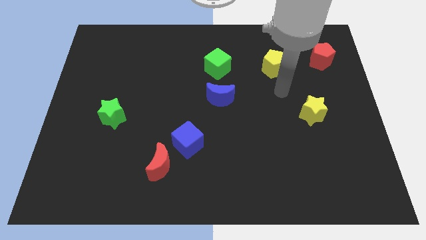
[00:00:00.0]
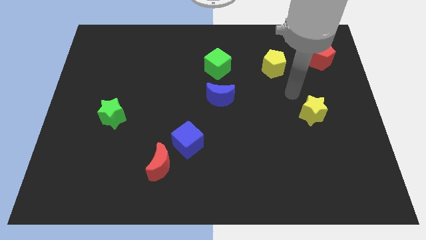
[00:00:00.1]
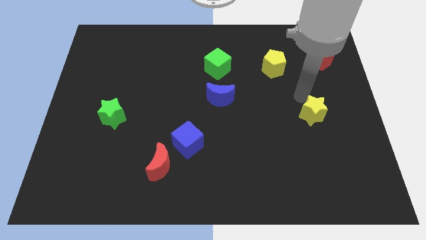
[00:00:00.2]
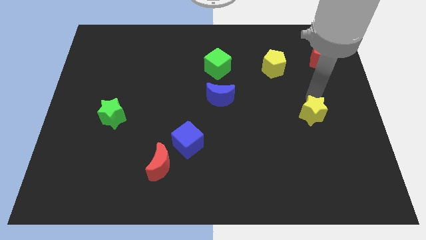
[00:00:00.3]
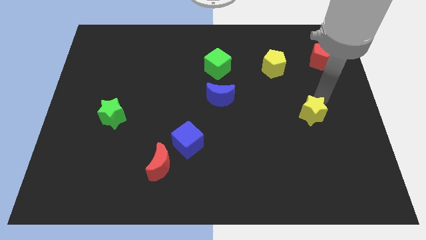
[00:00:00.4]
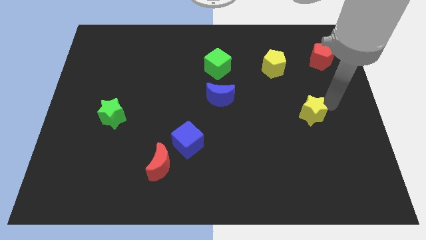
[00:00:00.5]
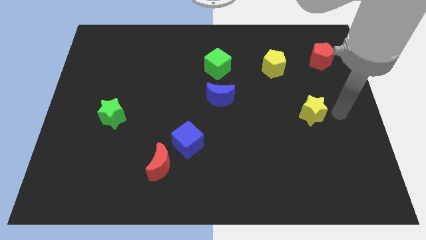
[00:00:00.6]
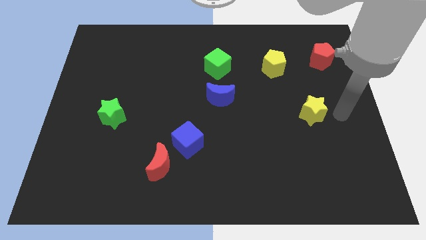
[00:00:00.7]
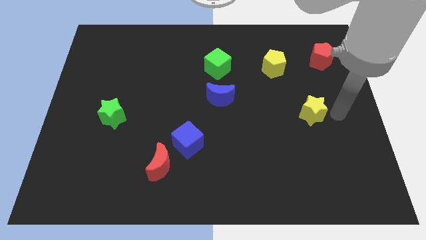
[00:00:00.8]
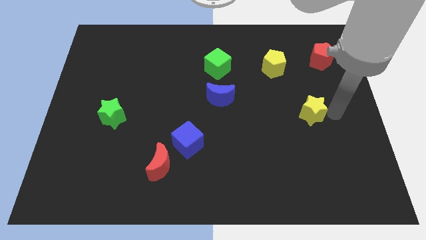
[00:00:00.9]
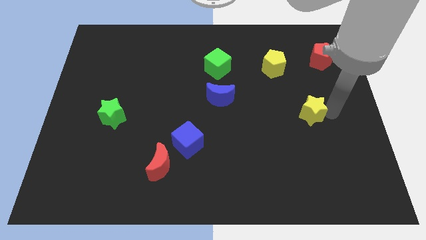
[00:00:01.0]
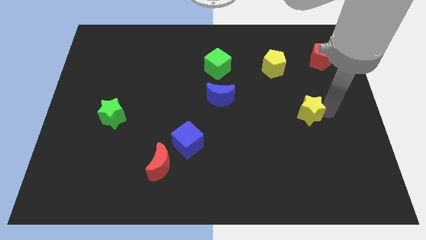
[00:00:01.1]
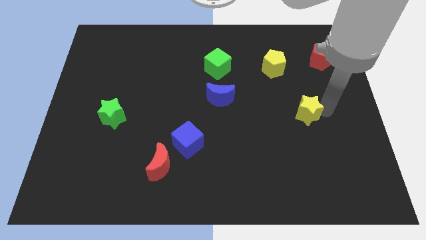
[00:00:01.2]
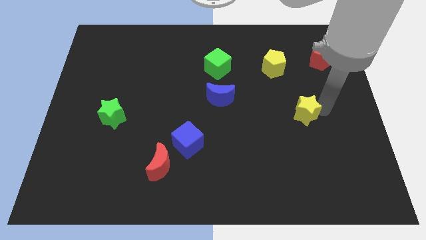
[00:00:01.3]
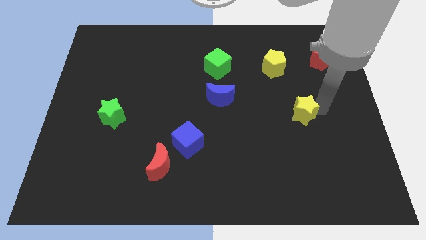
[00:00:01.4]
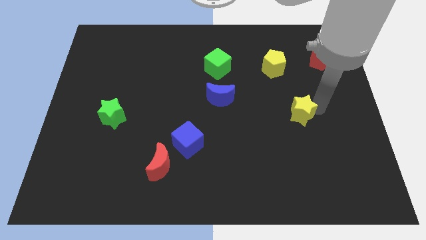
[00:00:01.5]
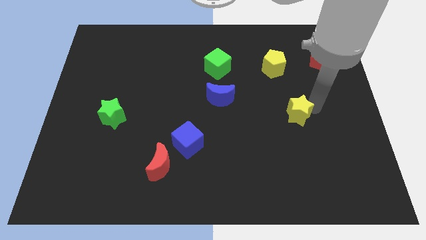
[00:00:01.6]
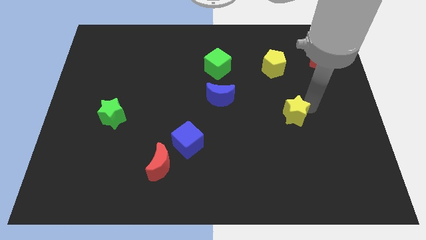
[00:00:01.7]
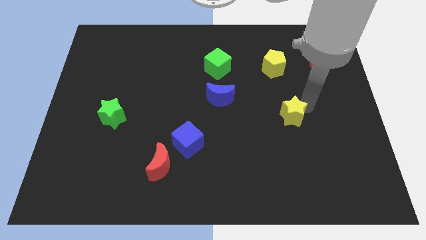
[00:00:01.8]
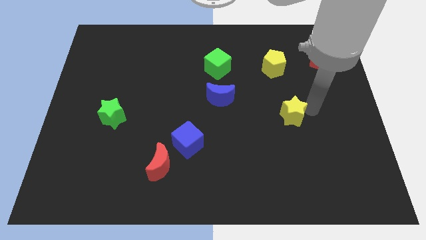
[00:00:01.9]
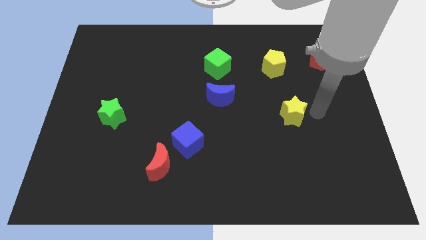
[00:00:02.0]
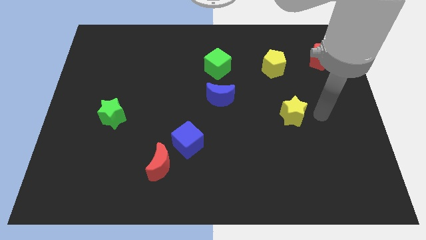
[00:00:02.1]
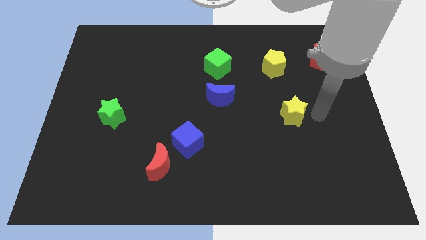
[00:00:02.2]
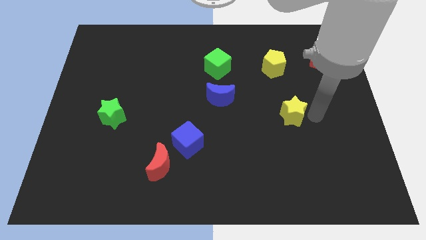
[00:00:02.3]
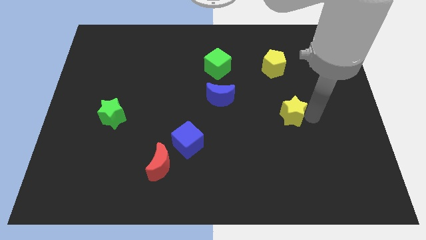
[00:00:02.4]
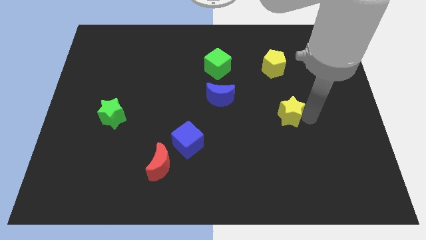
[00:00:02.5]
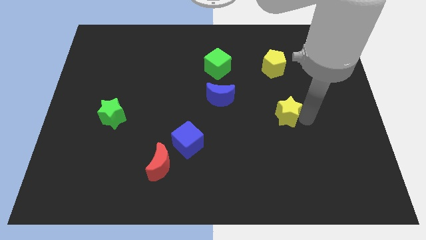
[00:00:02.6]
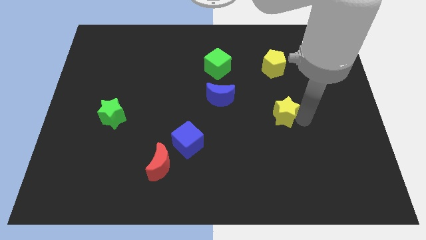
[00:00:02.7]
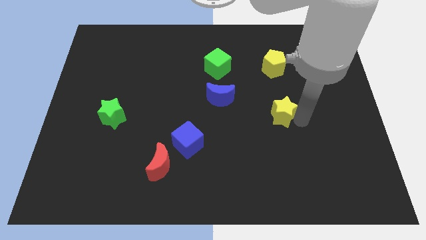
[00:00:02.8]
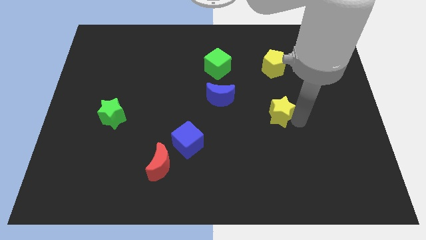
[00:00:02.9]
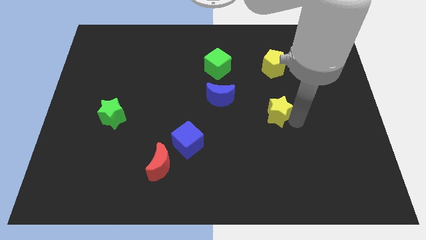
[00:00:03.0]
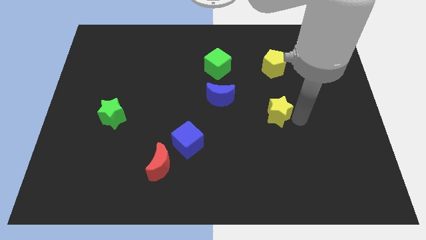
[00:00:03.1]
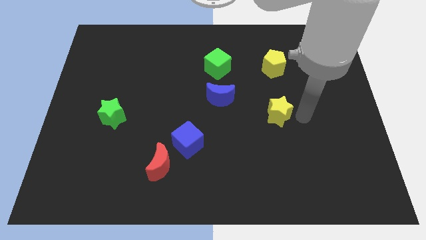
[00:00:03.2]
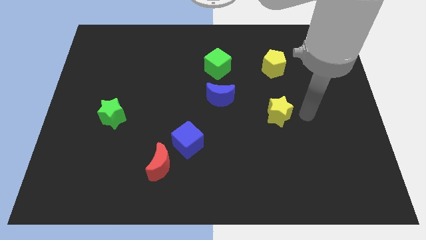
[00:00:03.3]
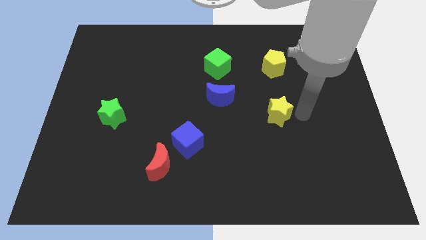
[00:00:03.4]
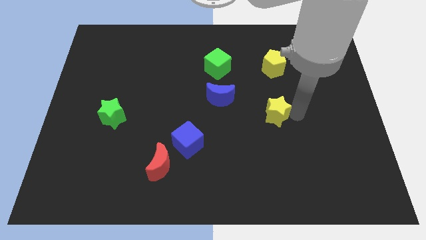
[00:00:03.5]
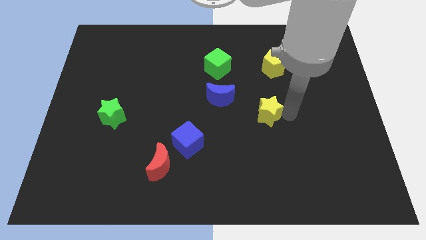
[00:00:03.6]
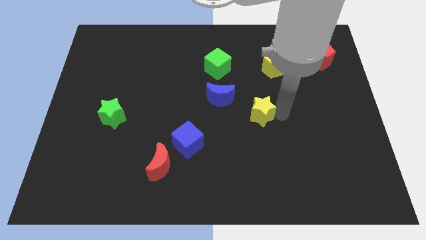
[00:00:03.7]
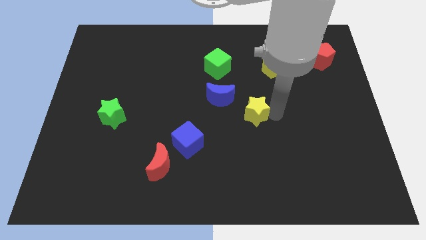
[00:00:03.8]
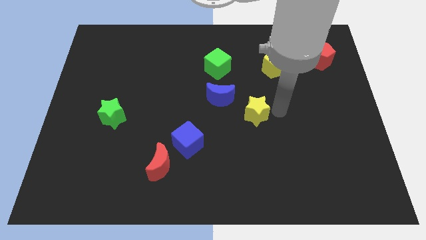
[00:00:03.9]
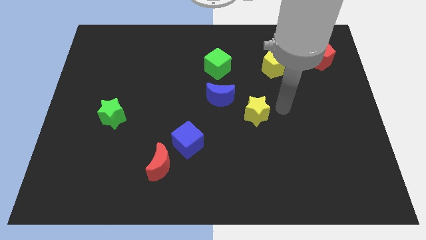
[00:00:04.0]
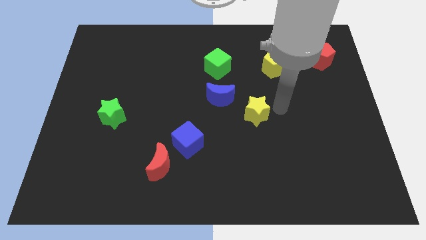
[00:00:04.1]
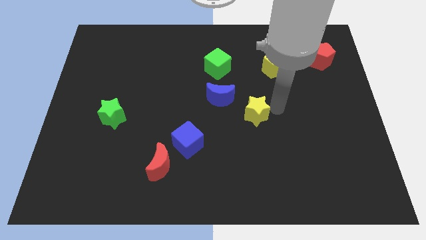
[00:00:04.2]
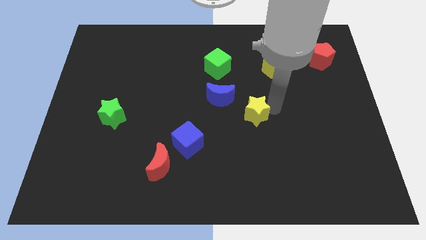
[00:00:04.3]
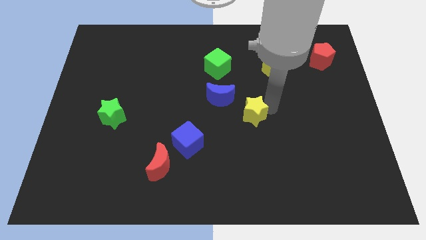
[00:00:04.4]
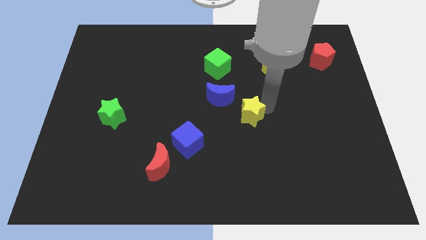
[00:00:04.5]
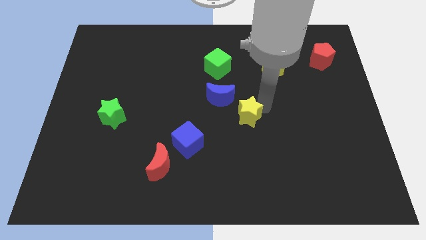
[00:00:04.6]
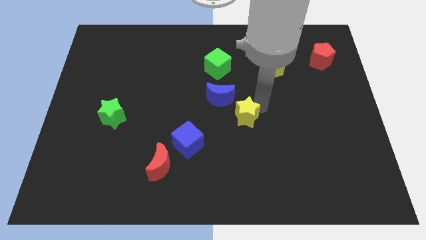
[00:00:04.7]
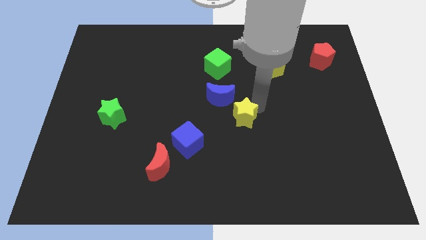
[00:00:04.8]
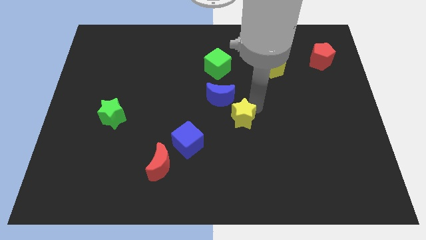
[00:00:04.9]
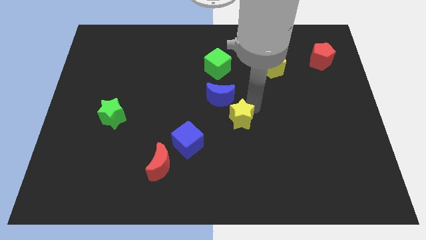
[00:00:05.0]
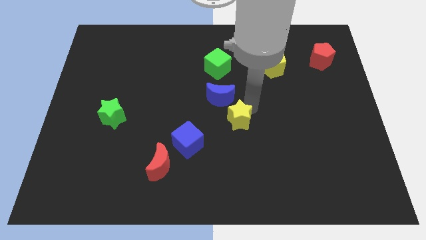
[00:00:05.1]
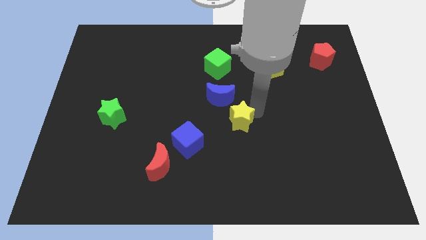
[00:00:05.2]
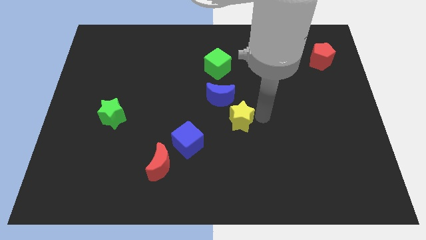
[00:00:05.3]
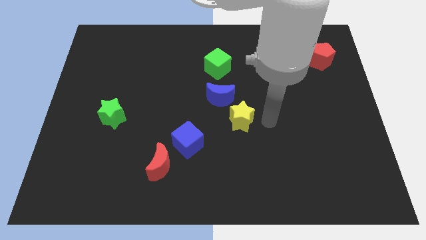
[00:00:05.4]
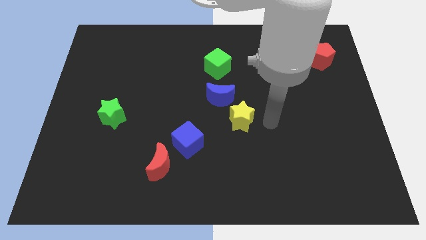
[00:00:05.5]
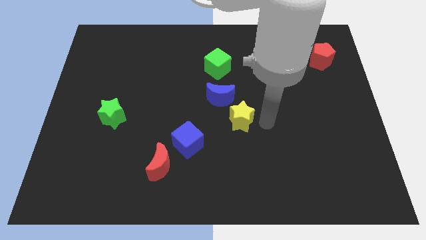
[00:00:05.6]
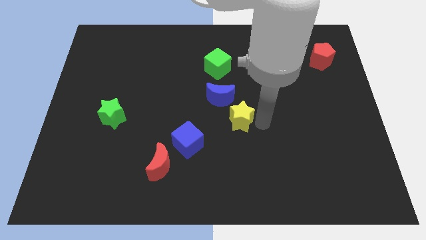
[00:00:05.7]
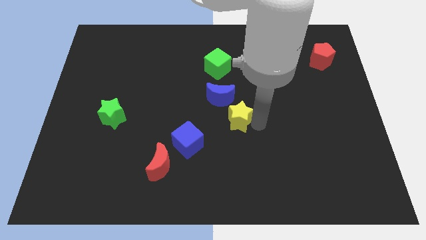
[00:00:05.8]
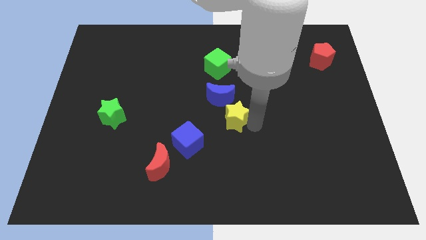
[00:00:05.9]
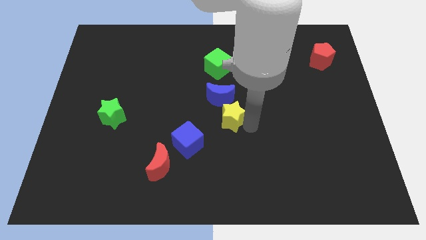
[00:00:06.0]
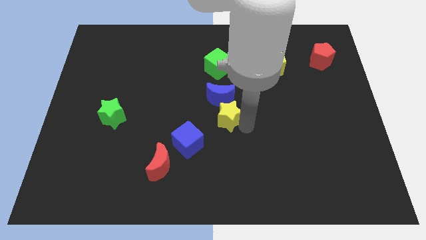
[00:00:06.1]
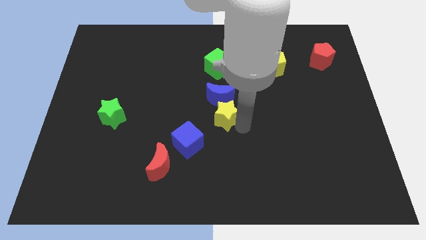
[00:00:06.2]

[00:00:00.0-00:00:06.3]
slide the yellow star left

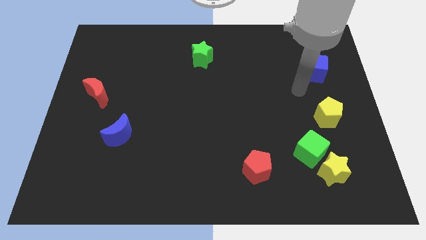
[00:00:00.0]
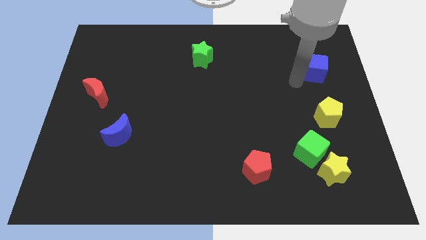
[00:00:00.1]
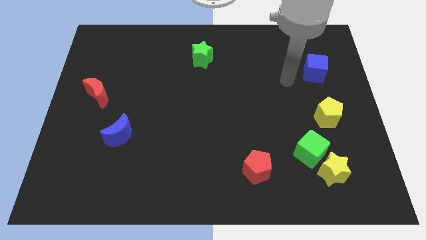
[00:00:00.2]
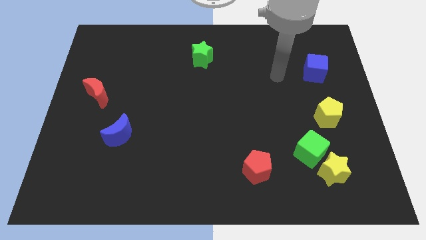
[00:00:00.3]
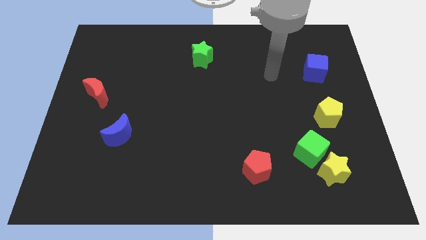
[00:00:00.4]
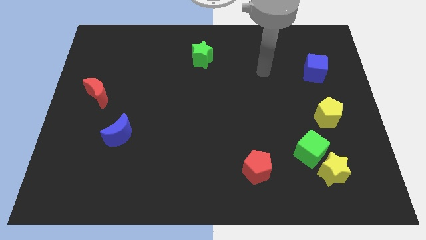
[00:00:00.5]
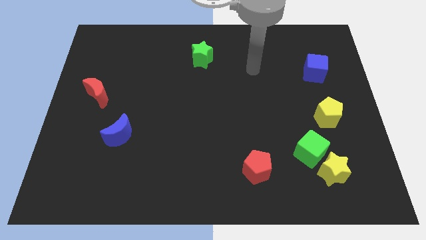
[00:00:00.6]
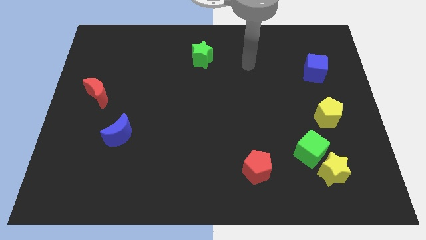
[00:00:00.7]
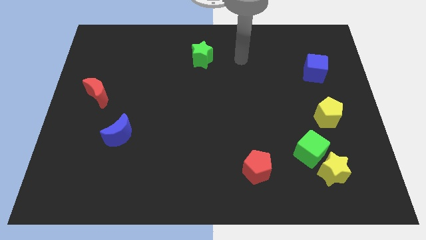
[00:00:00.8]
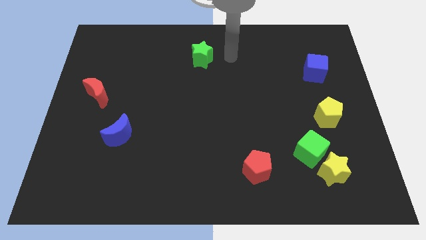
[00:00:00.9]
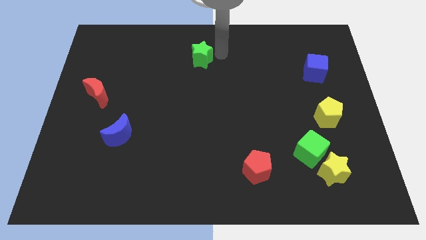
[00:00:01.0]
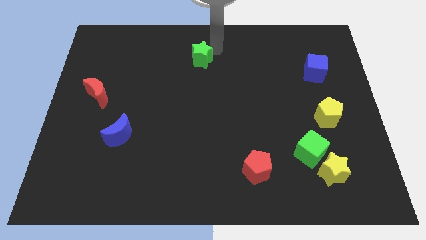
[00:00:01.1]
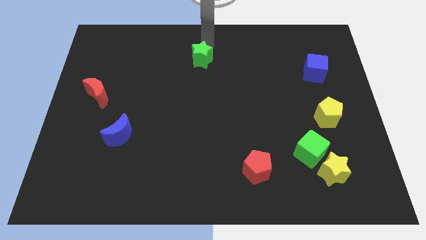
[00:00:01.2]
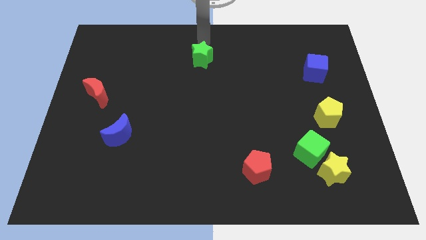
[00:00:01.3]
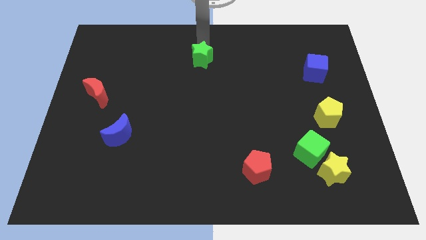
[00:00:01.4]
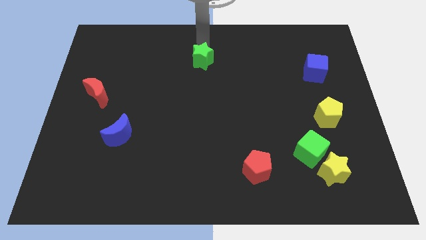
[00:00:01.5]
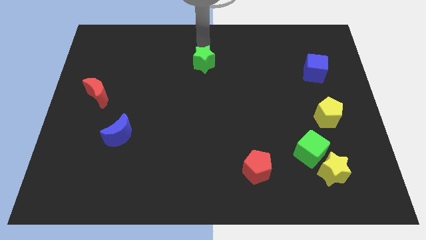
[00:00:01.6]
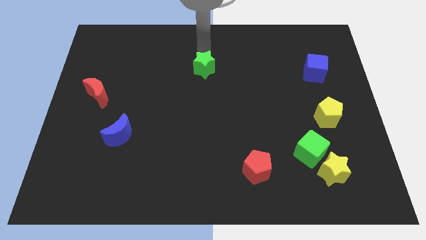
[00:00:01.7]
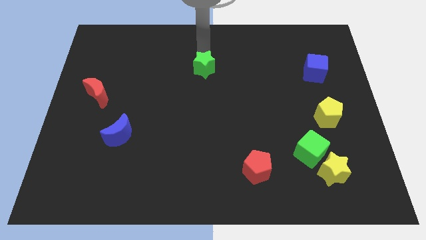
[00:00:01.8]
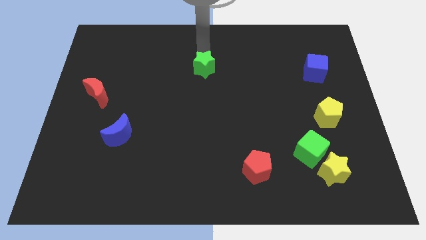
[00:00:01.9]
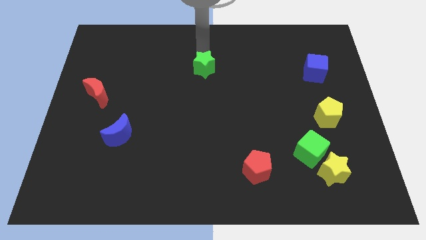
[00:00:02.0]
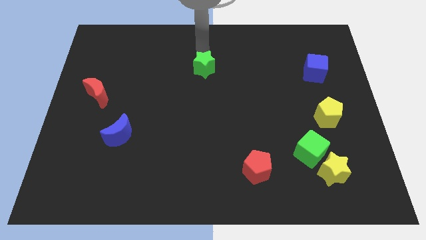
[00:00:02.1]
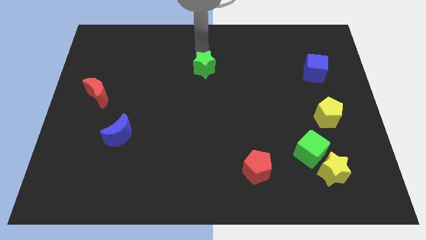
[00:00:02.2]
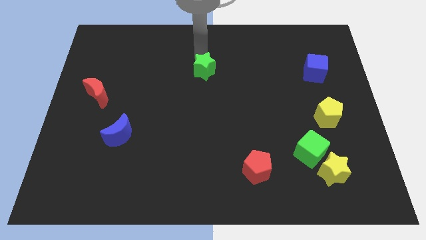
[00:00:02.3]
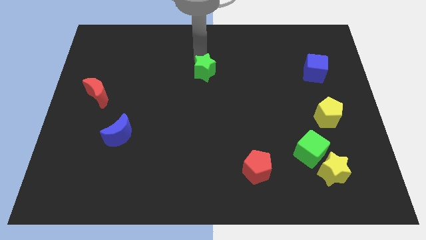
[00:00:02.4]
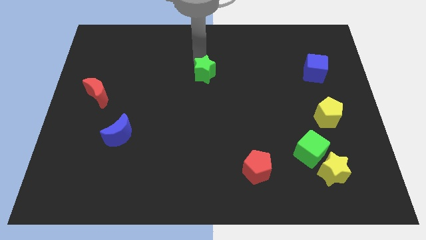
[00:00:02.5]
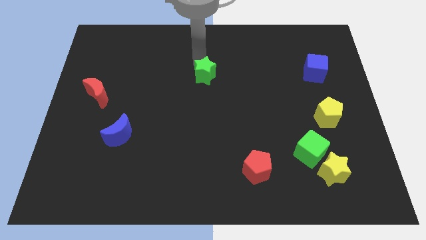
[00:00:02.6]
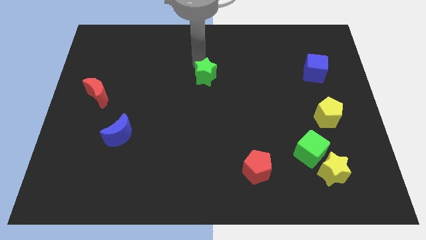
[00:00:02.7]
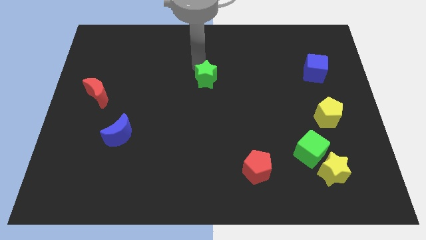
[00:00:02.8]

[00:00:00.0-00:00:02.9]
move the green star downwards somewhat
